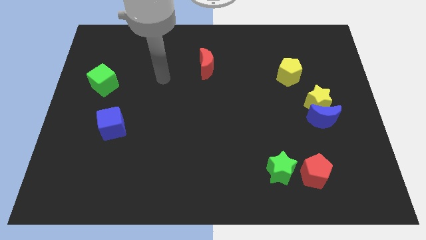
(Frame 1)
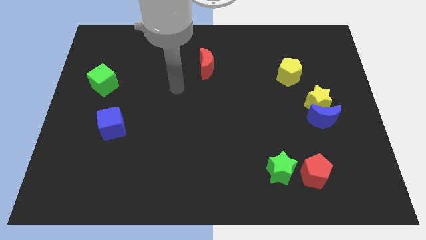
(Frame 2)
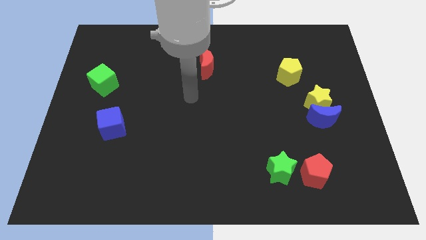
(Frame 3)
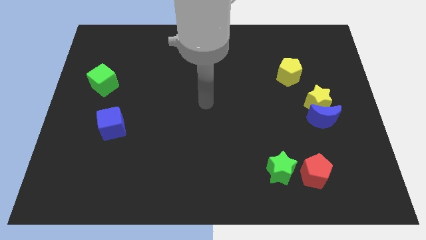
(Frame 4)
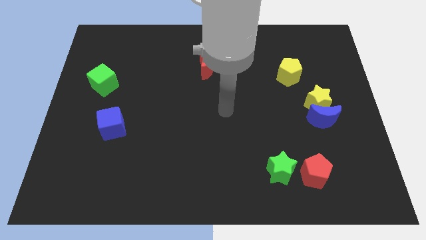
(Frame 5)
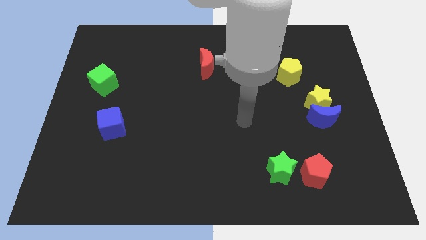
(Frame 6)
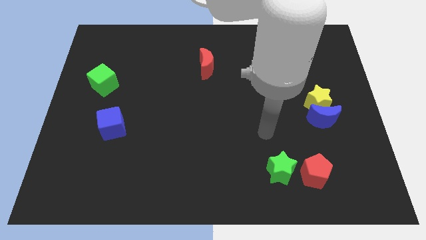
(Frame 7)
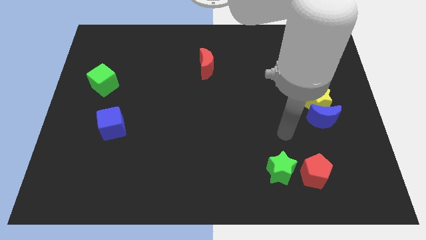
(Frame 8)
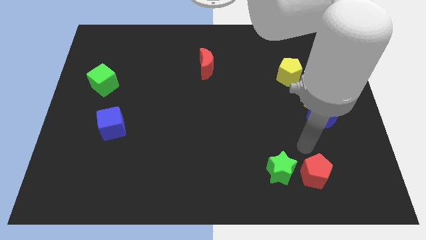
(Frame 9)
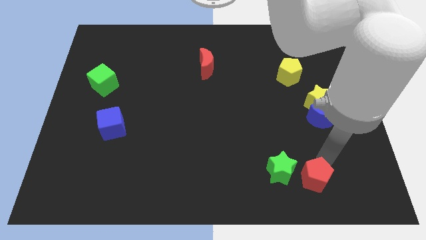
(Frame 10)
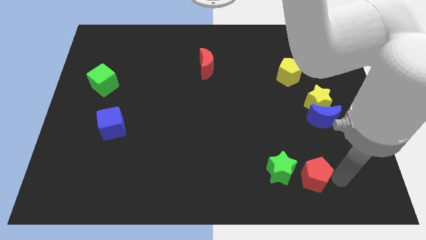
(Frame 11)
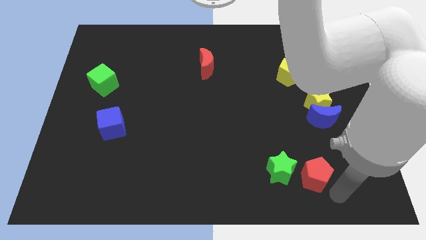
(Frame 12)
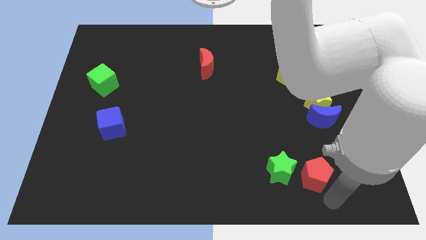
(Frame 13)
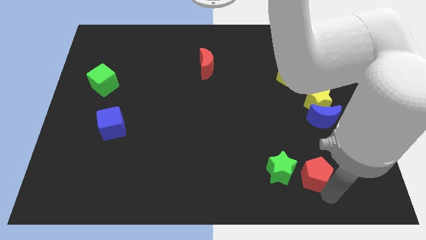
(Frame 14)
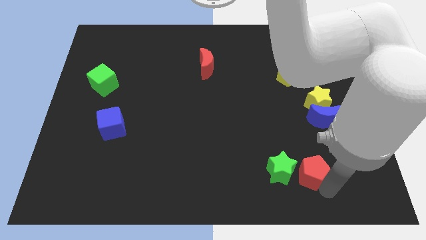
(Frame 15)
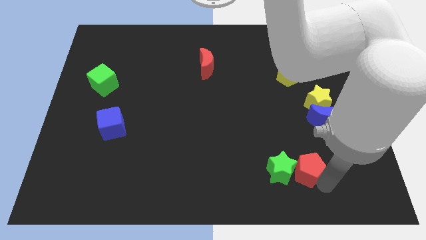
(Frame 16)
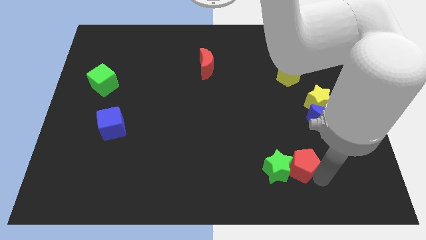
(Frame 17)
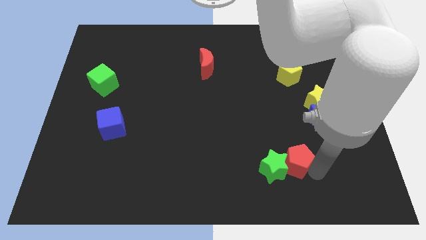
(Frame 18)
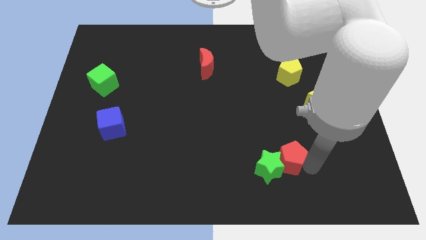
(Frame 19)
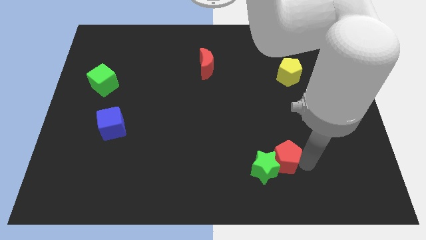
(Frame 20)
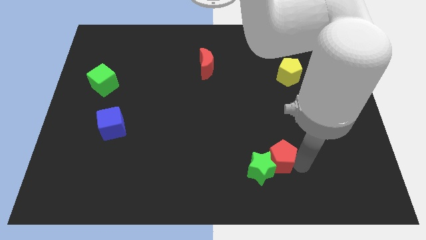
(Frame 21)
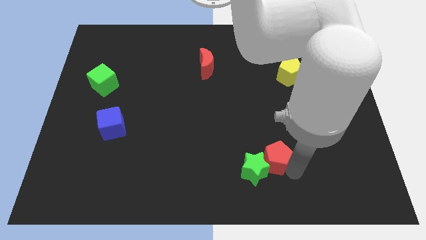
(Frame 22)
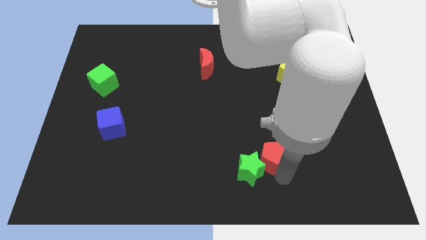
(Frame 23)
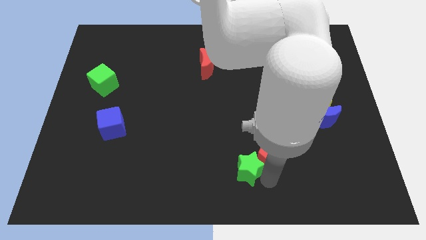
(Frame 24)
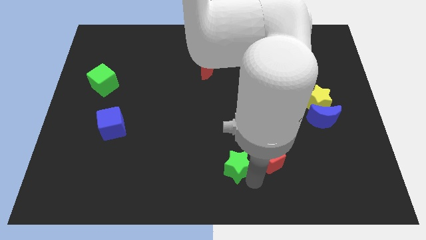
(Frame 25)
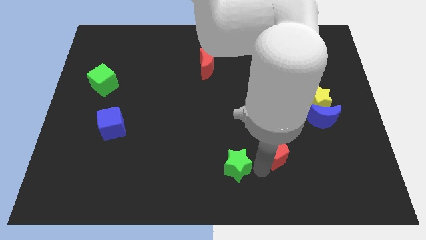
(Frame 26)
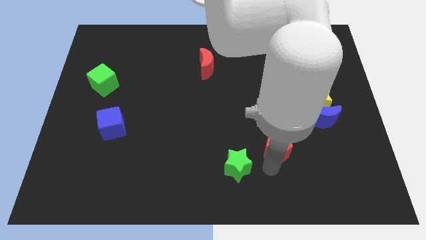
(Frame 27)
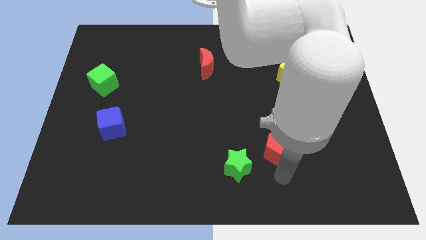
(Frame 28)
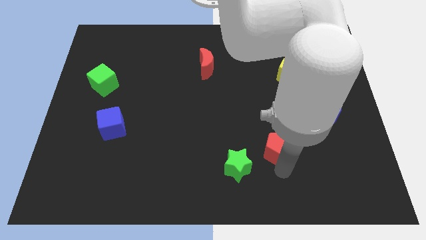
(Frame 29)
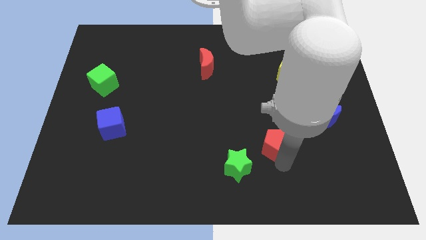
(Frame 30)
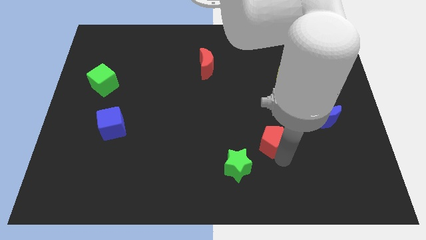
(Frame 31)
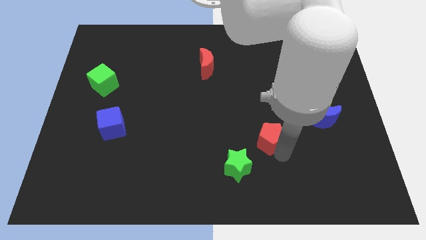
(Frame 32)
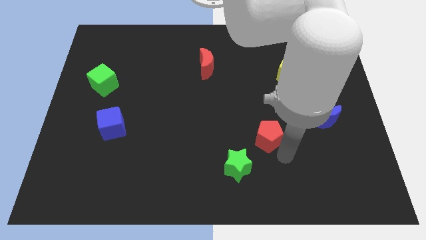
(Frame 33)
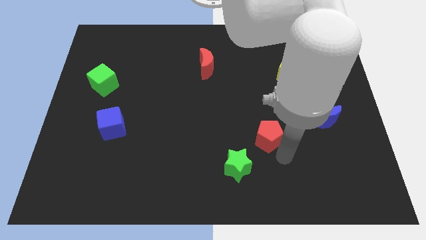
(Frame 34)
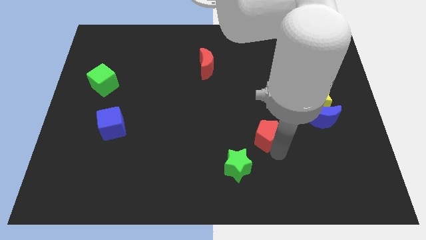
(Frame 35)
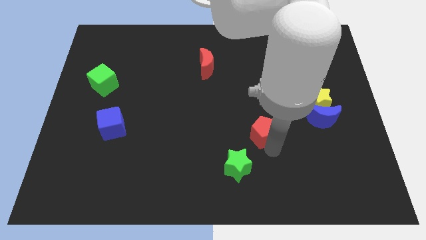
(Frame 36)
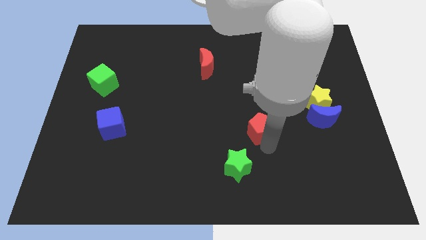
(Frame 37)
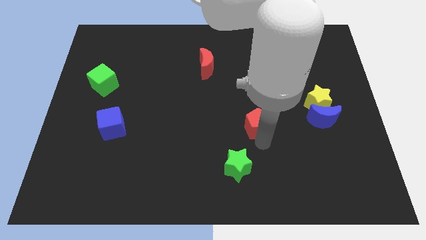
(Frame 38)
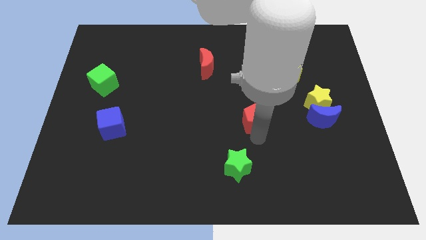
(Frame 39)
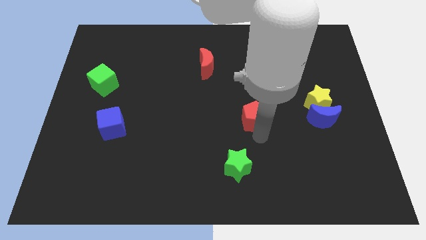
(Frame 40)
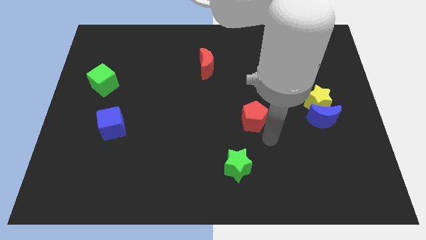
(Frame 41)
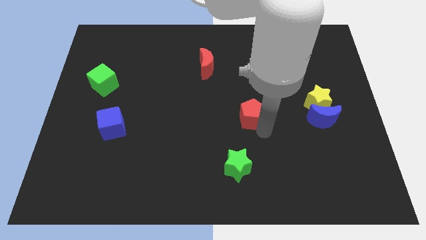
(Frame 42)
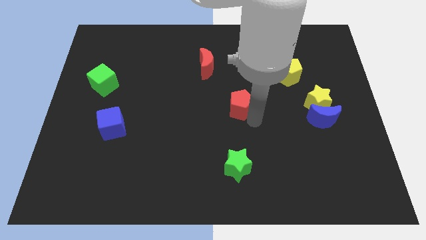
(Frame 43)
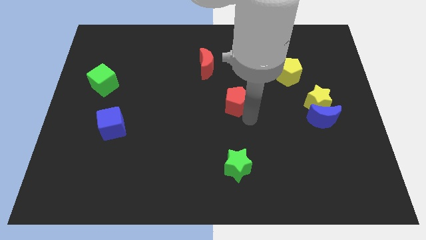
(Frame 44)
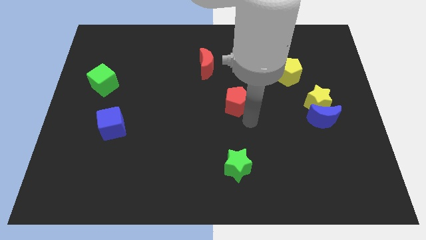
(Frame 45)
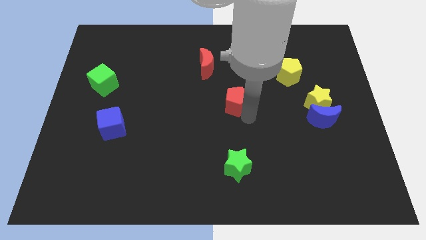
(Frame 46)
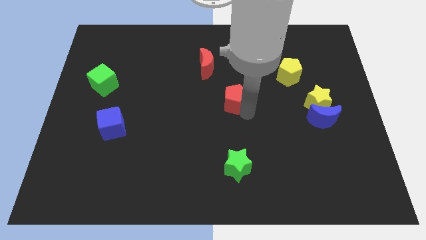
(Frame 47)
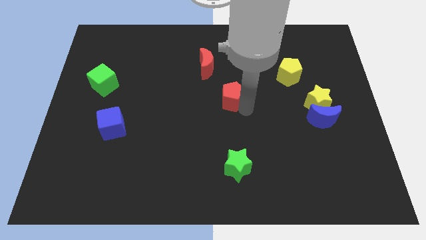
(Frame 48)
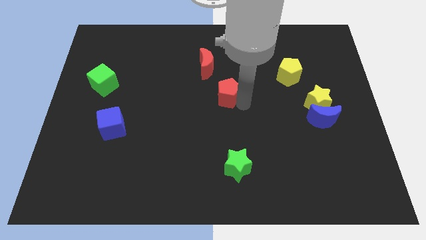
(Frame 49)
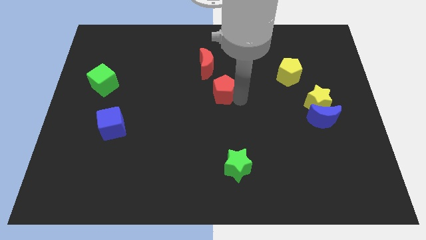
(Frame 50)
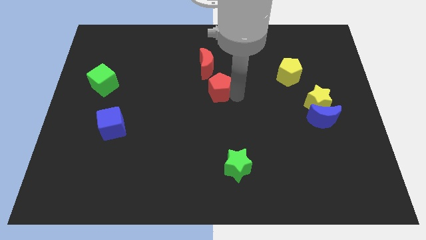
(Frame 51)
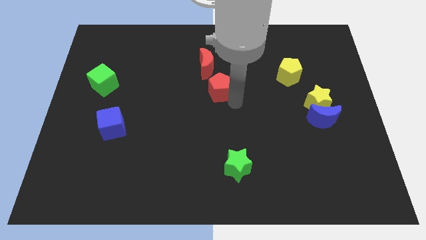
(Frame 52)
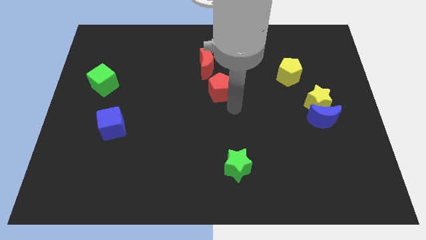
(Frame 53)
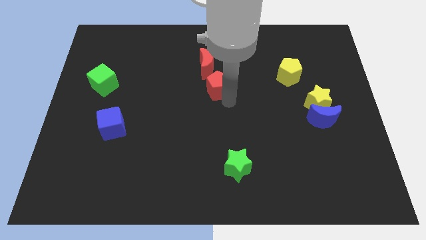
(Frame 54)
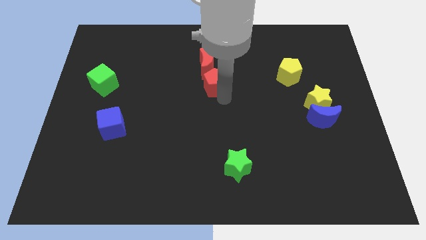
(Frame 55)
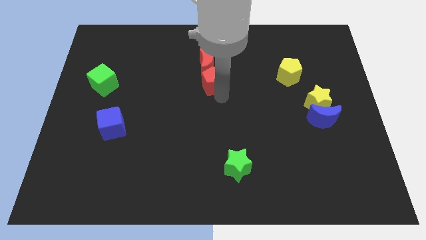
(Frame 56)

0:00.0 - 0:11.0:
slide the red pentagon close to the red moon

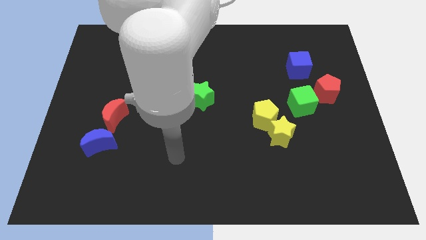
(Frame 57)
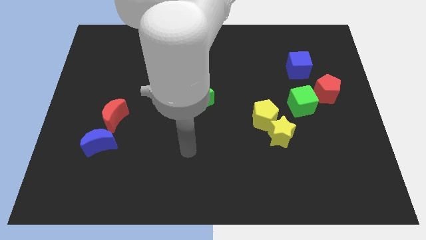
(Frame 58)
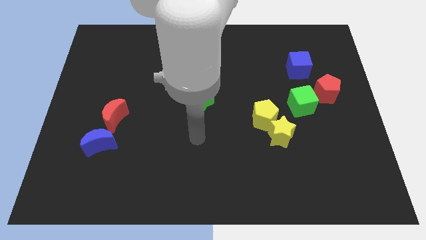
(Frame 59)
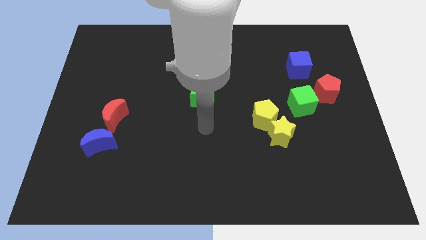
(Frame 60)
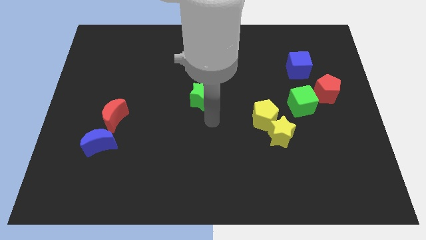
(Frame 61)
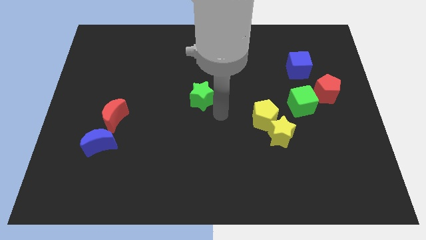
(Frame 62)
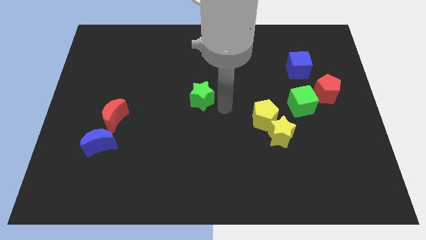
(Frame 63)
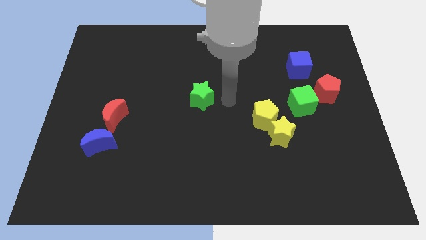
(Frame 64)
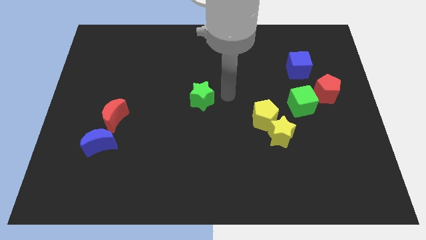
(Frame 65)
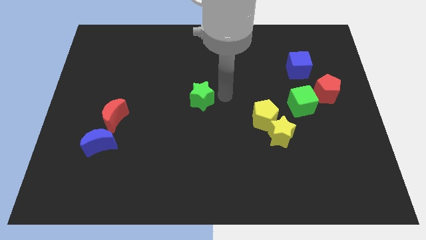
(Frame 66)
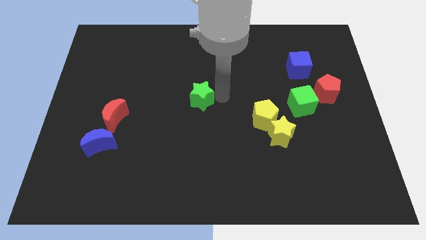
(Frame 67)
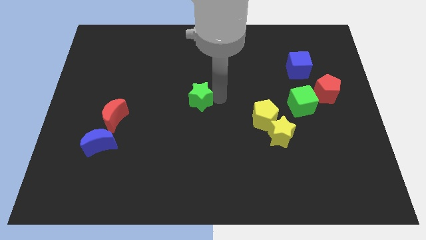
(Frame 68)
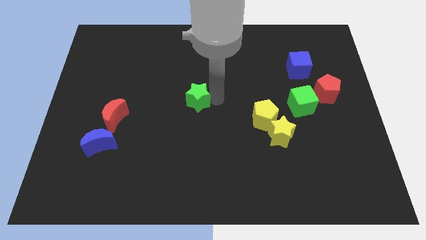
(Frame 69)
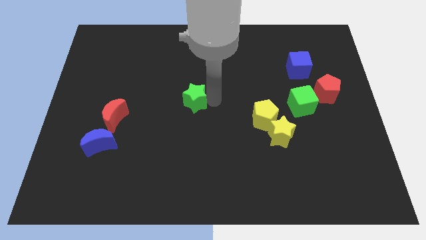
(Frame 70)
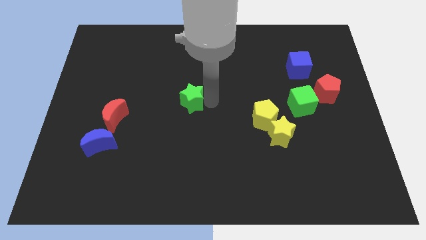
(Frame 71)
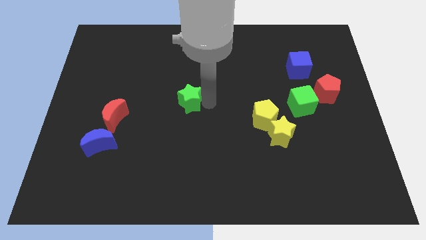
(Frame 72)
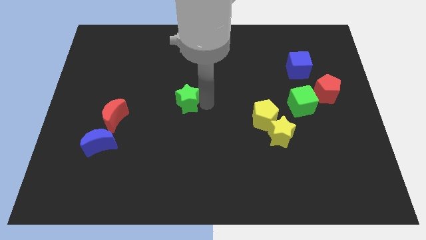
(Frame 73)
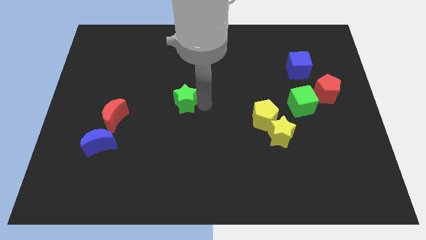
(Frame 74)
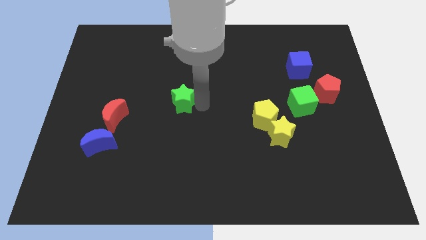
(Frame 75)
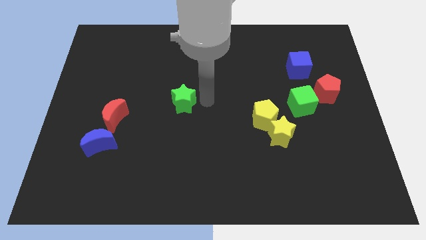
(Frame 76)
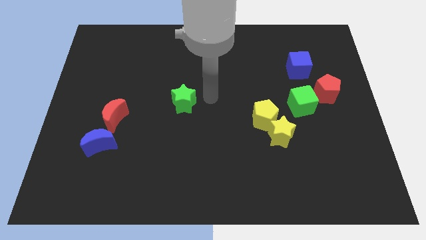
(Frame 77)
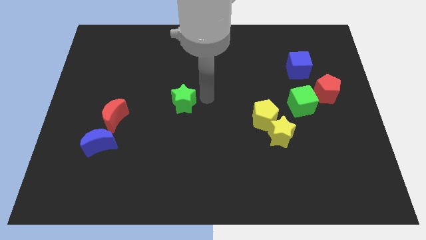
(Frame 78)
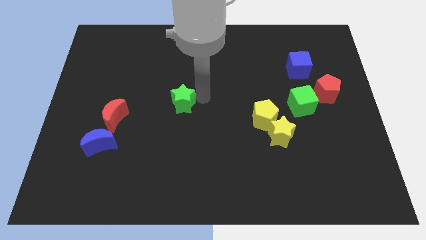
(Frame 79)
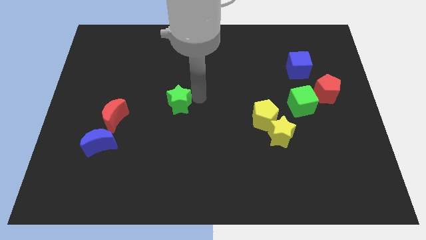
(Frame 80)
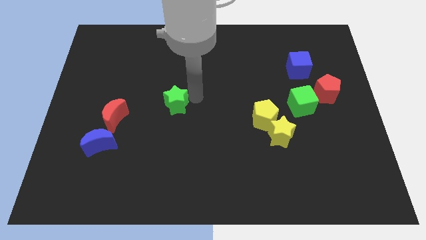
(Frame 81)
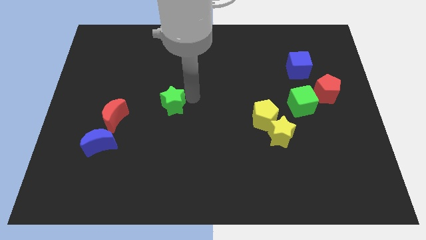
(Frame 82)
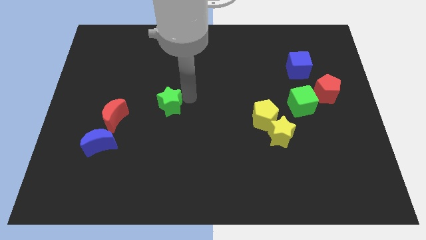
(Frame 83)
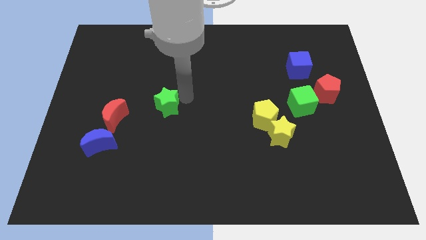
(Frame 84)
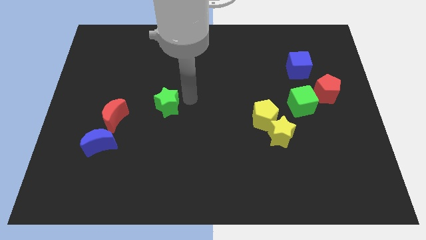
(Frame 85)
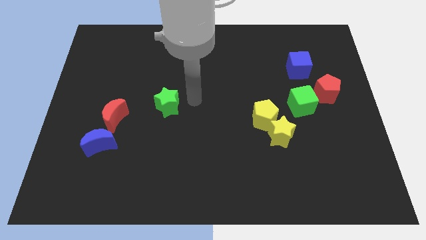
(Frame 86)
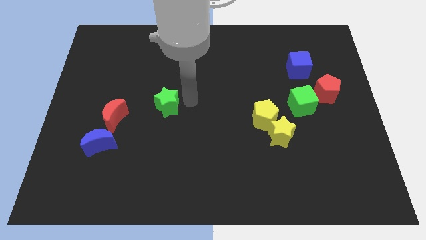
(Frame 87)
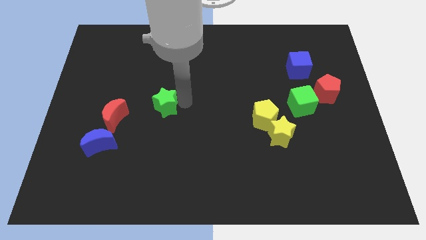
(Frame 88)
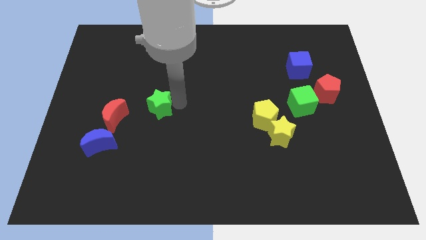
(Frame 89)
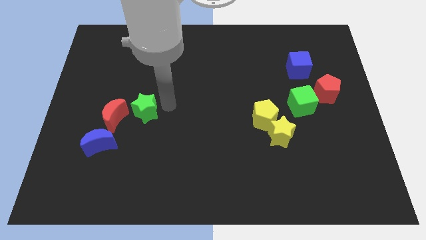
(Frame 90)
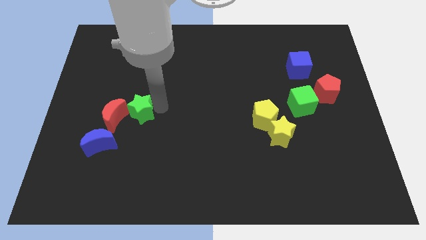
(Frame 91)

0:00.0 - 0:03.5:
put the green star to the red moon
